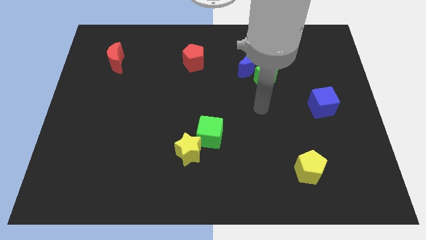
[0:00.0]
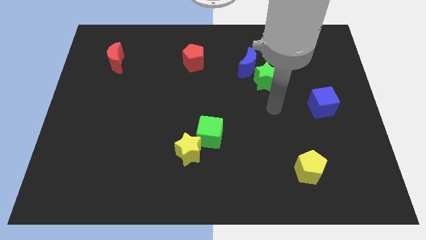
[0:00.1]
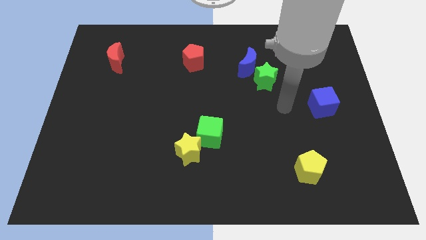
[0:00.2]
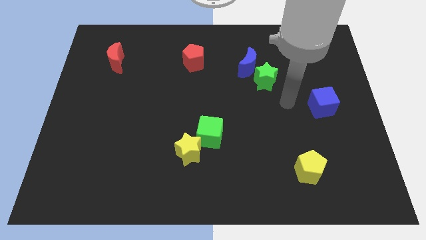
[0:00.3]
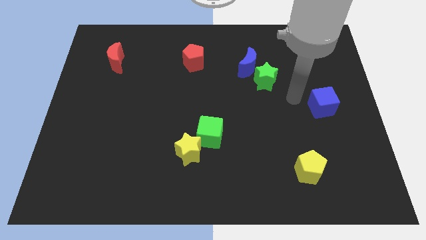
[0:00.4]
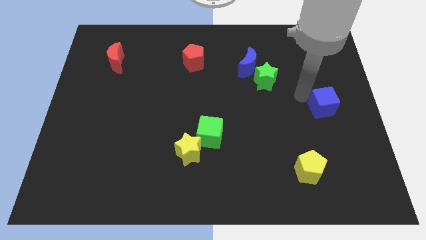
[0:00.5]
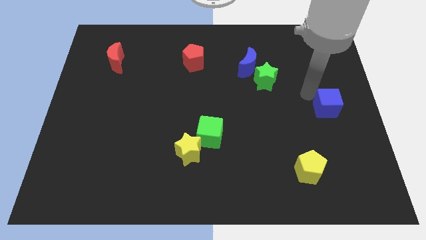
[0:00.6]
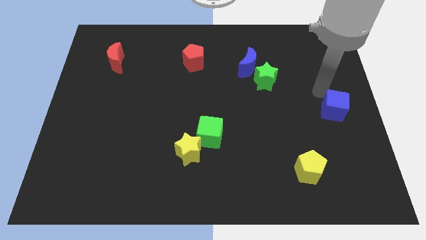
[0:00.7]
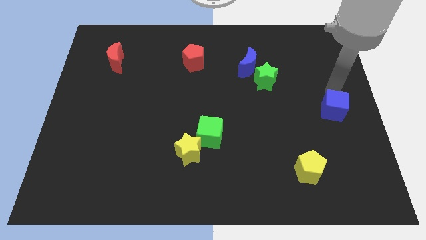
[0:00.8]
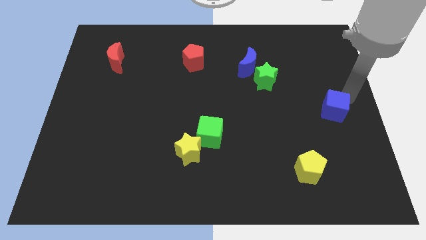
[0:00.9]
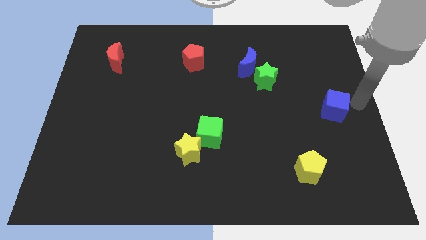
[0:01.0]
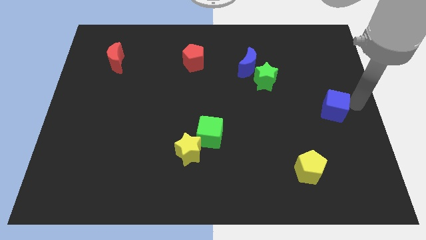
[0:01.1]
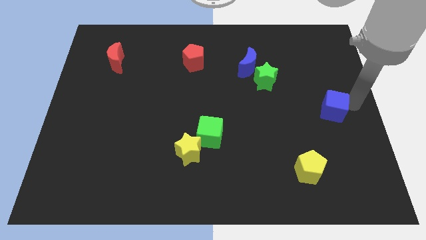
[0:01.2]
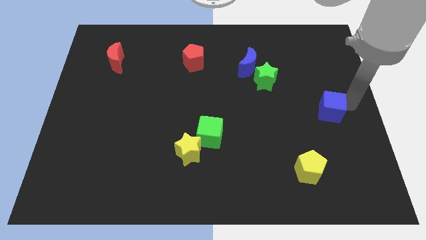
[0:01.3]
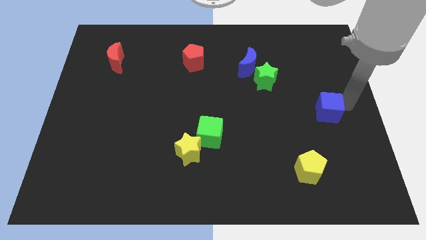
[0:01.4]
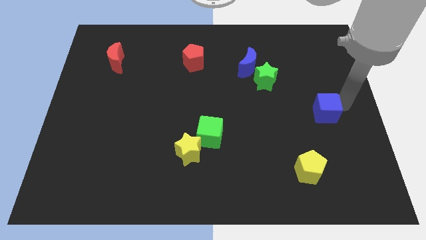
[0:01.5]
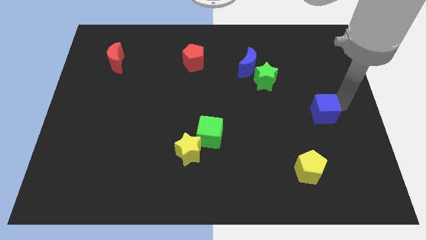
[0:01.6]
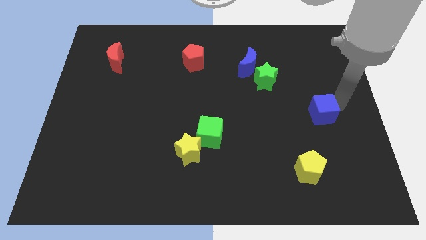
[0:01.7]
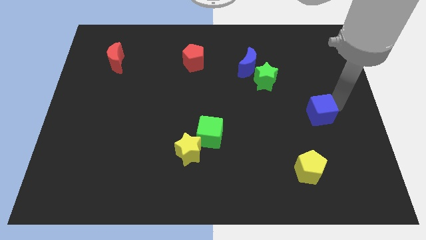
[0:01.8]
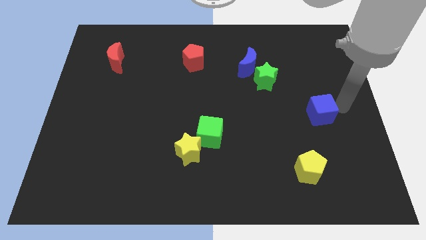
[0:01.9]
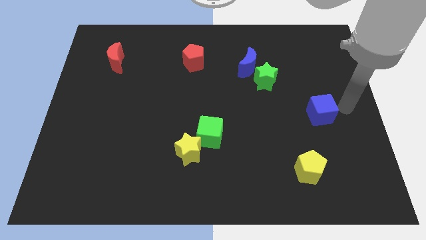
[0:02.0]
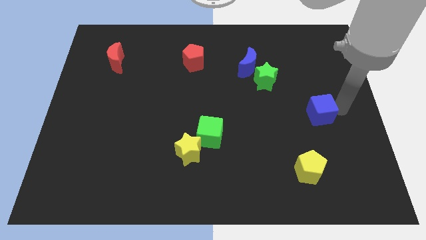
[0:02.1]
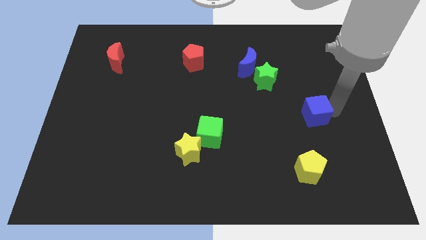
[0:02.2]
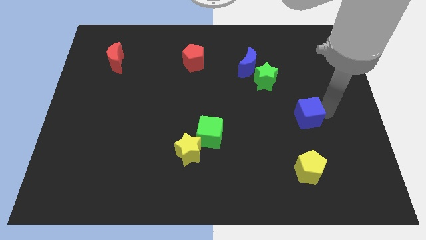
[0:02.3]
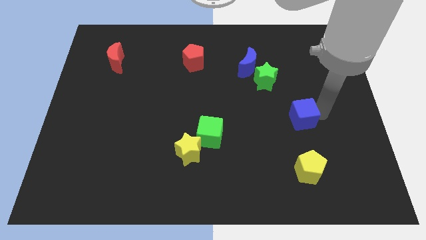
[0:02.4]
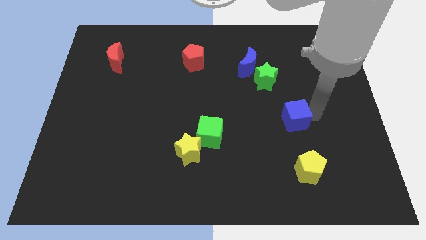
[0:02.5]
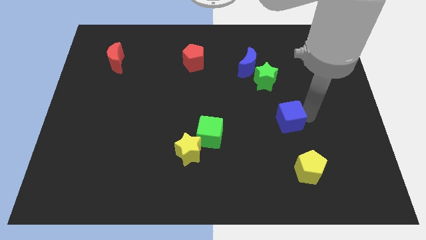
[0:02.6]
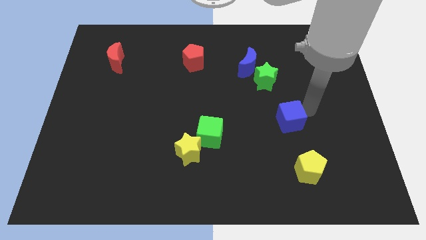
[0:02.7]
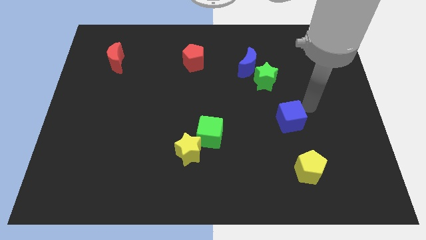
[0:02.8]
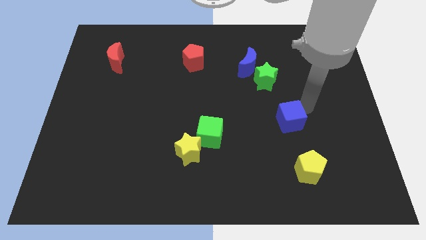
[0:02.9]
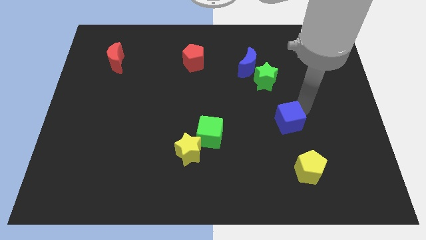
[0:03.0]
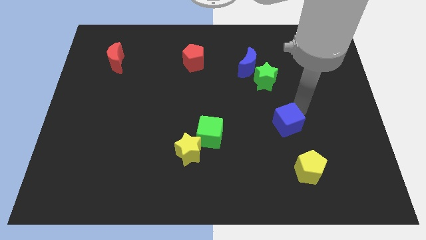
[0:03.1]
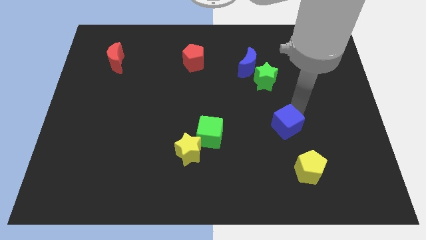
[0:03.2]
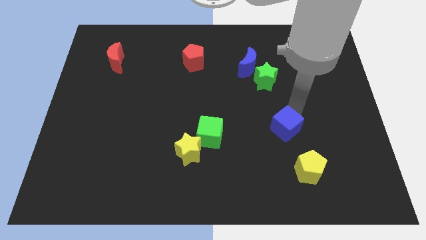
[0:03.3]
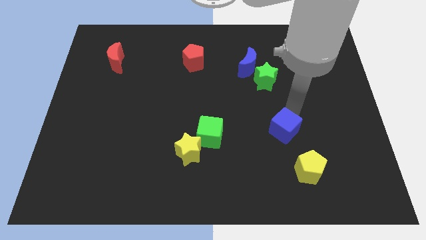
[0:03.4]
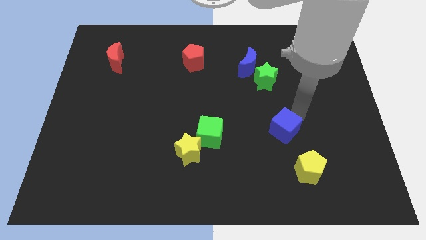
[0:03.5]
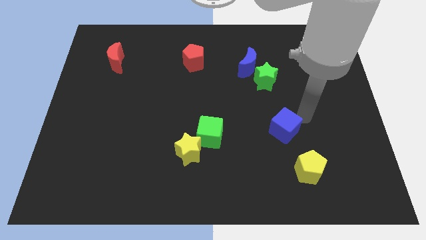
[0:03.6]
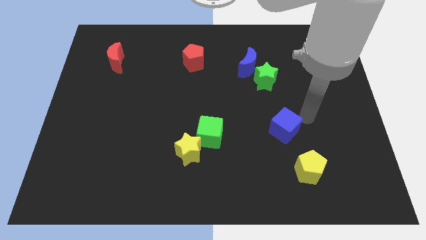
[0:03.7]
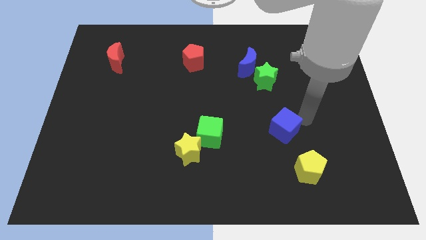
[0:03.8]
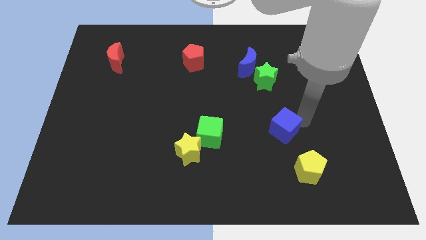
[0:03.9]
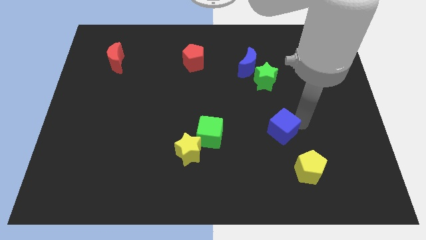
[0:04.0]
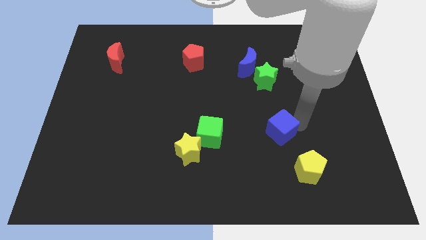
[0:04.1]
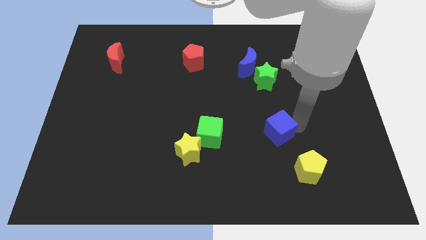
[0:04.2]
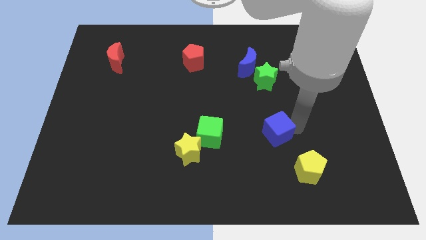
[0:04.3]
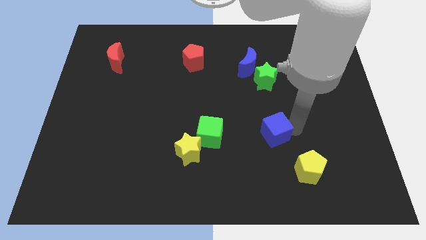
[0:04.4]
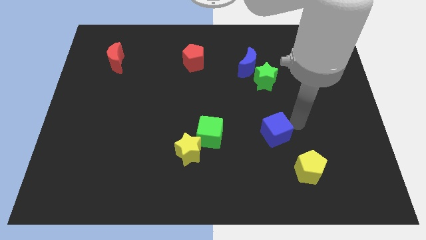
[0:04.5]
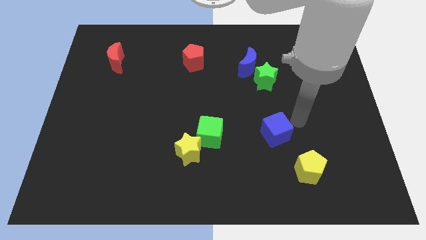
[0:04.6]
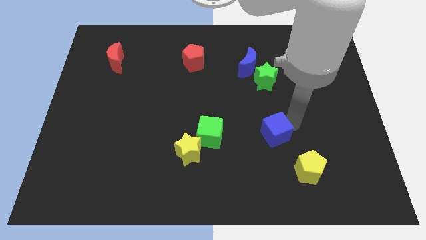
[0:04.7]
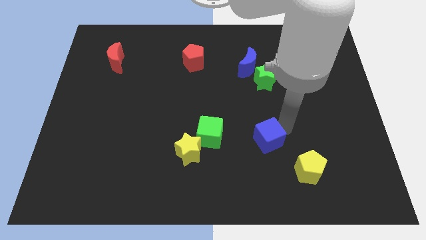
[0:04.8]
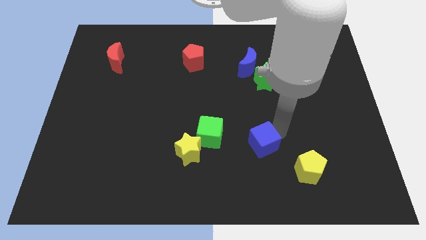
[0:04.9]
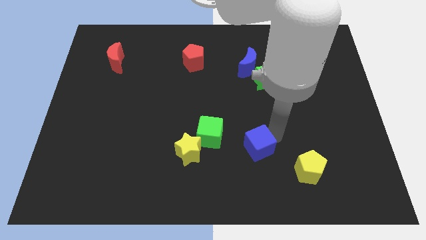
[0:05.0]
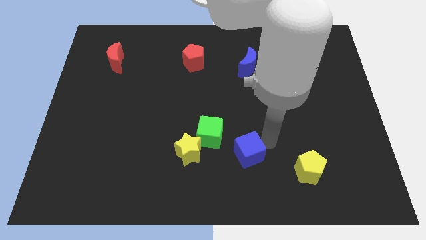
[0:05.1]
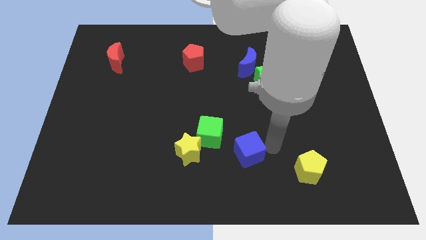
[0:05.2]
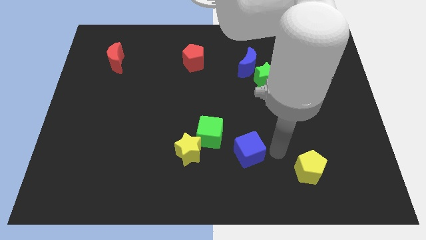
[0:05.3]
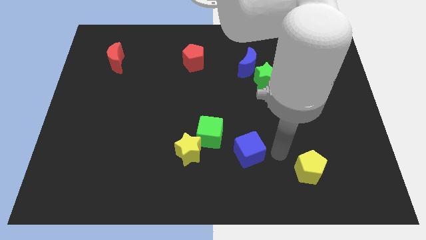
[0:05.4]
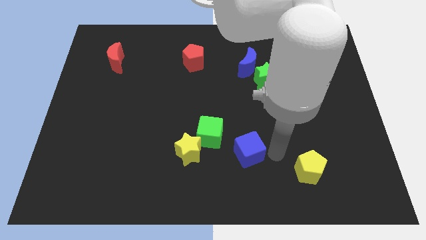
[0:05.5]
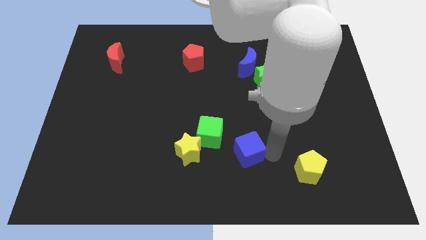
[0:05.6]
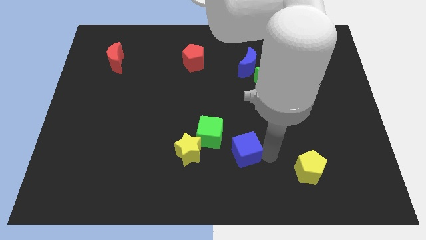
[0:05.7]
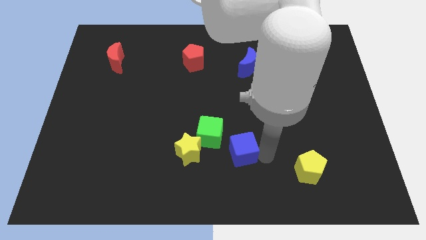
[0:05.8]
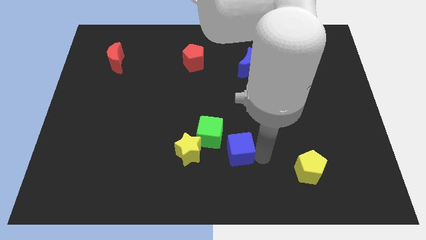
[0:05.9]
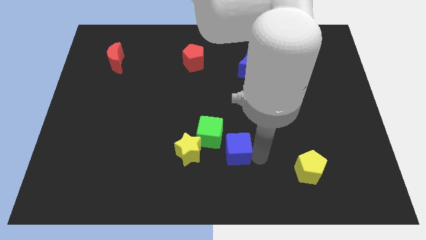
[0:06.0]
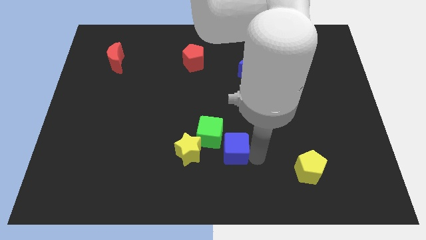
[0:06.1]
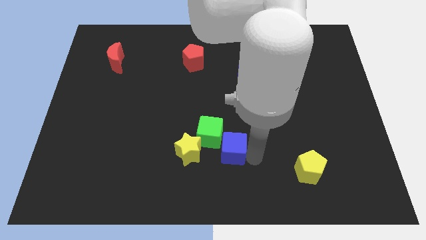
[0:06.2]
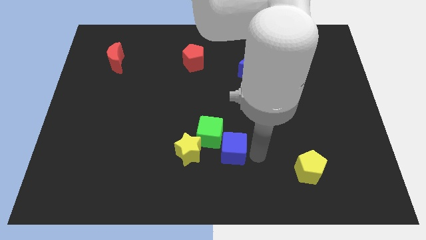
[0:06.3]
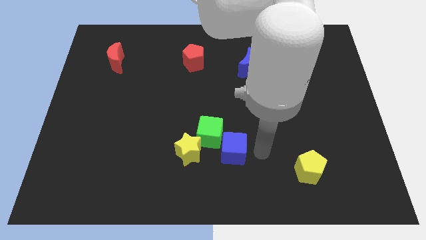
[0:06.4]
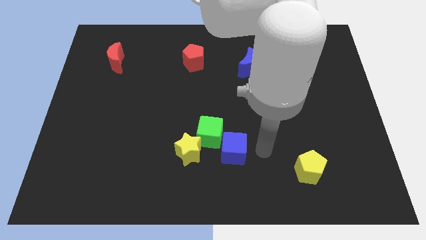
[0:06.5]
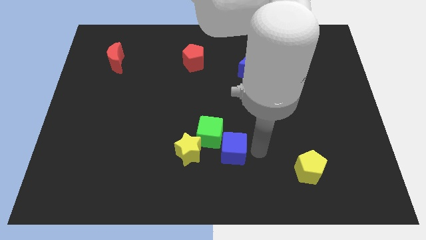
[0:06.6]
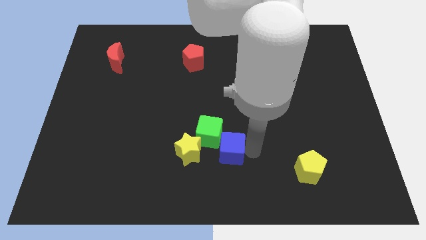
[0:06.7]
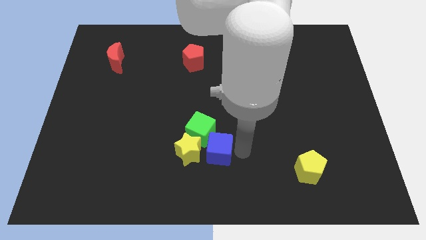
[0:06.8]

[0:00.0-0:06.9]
push the blue cube close to the yellow star

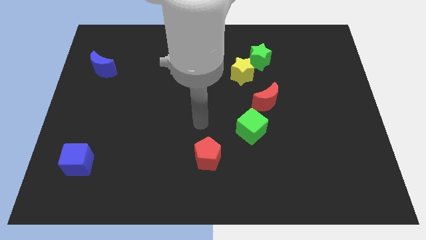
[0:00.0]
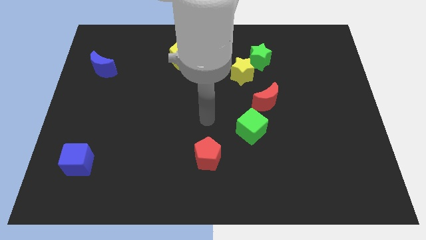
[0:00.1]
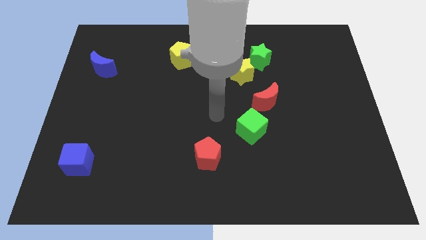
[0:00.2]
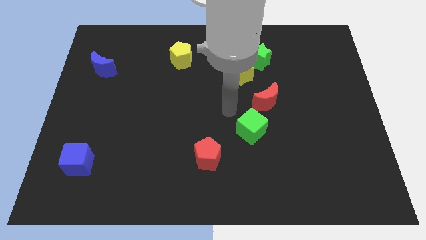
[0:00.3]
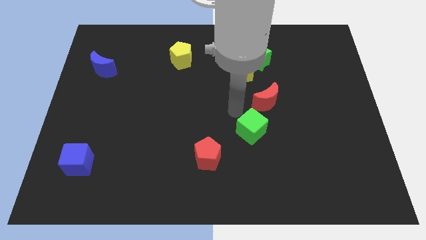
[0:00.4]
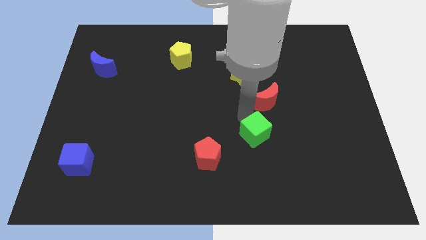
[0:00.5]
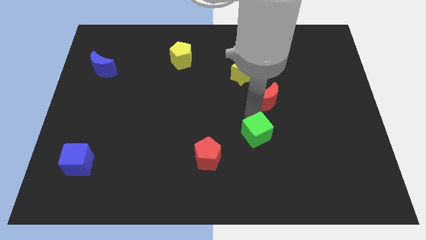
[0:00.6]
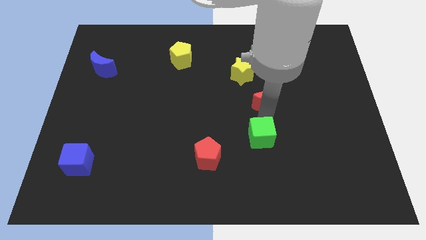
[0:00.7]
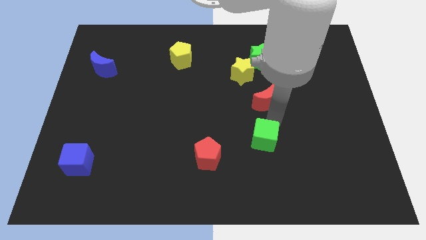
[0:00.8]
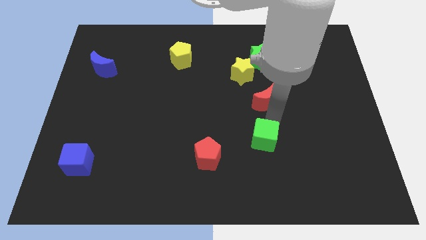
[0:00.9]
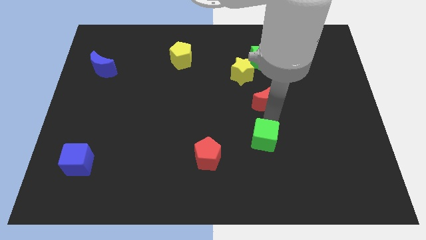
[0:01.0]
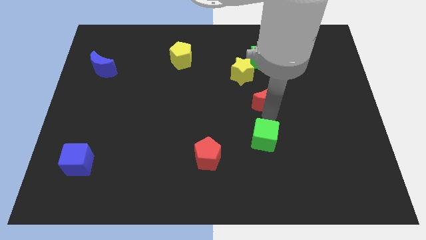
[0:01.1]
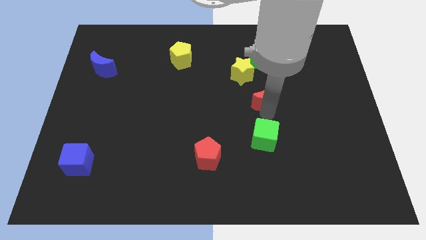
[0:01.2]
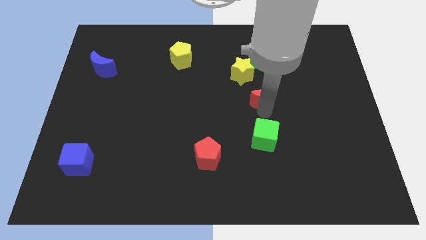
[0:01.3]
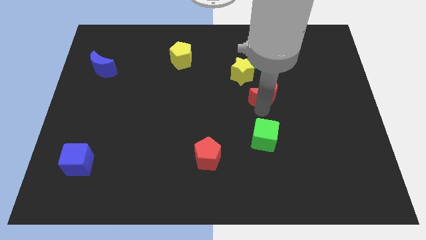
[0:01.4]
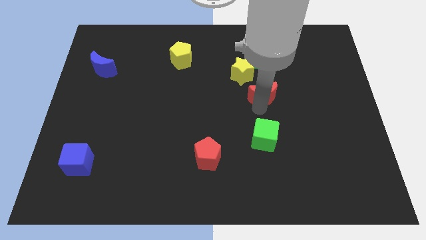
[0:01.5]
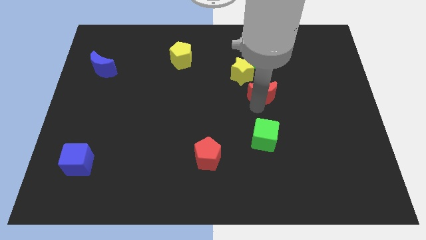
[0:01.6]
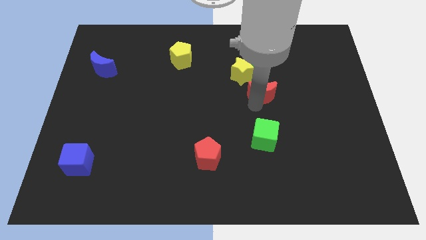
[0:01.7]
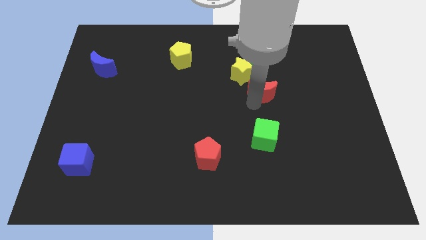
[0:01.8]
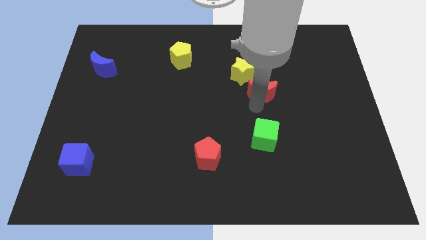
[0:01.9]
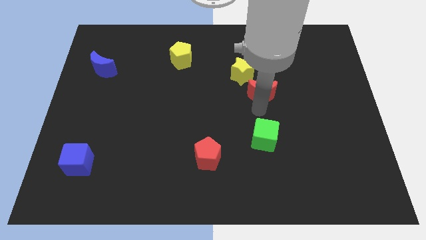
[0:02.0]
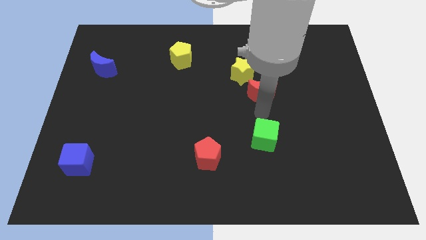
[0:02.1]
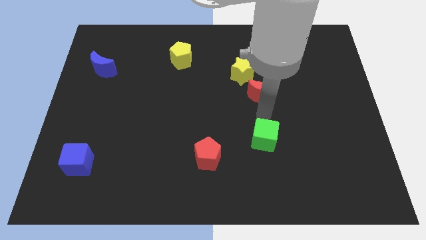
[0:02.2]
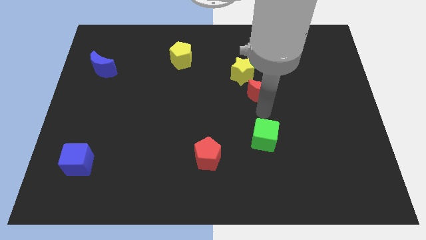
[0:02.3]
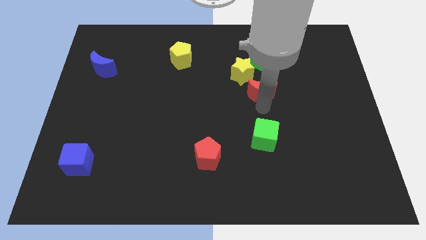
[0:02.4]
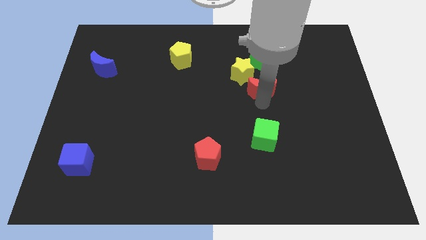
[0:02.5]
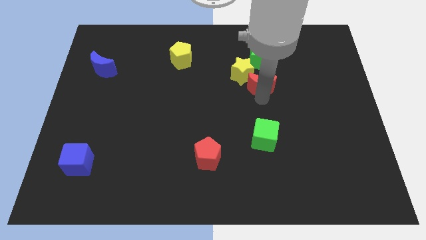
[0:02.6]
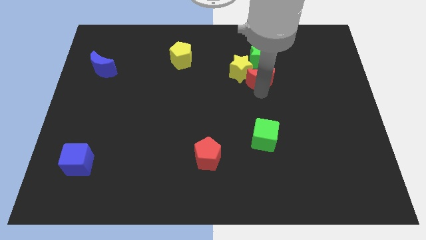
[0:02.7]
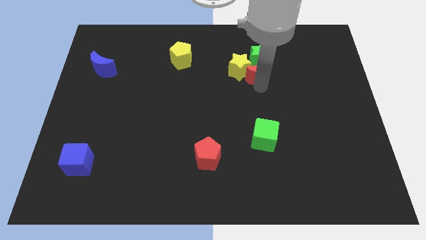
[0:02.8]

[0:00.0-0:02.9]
push the red moon to the green star
